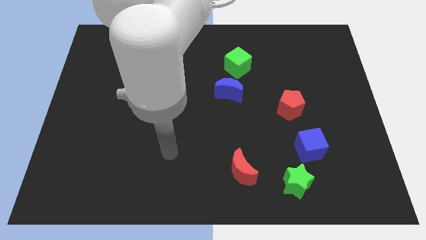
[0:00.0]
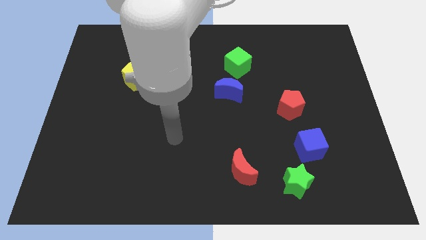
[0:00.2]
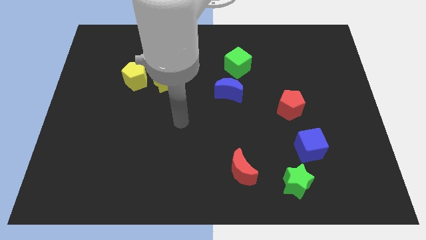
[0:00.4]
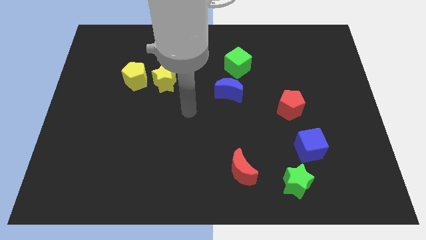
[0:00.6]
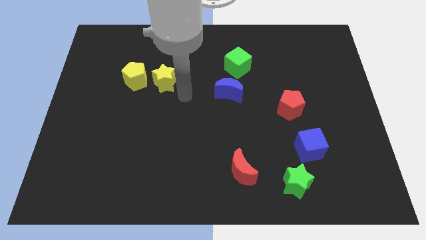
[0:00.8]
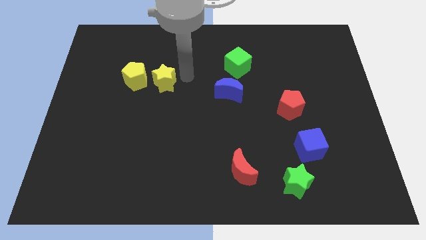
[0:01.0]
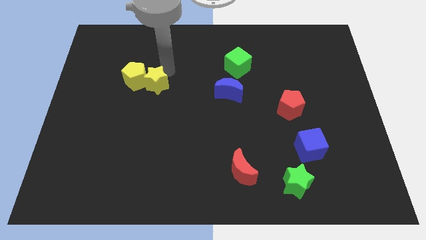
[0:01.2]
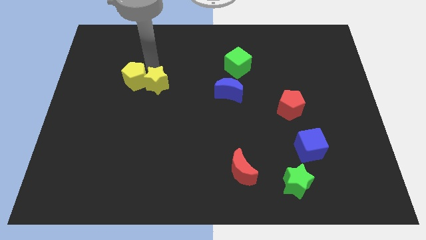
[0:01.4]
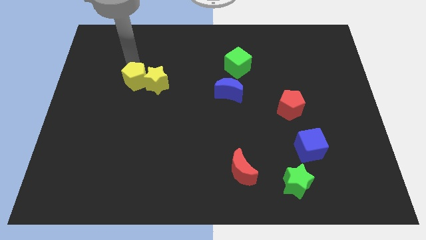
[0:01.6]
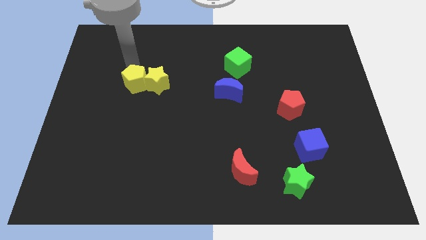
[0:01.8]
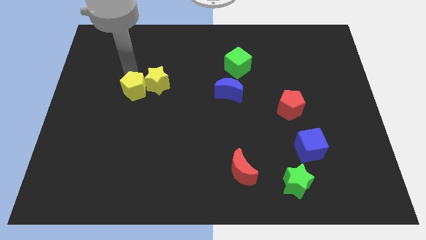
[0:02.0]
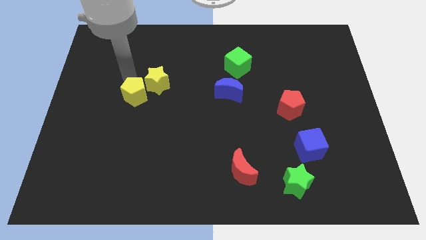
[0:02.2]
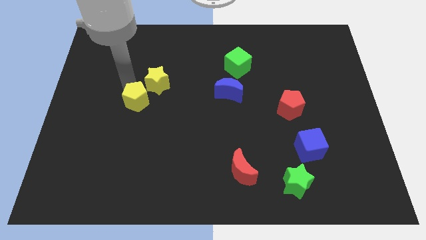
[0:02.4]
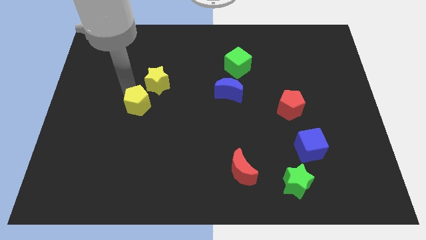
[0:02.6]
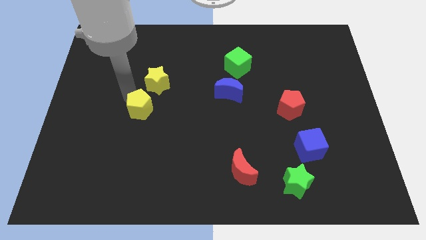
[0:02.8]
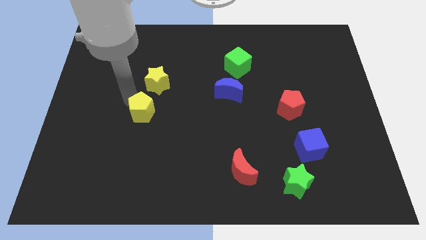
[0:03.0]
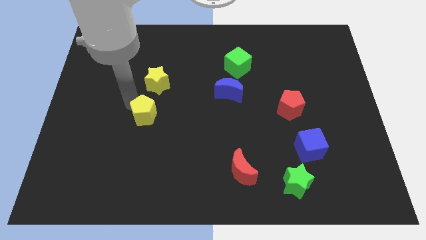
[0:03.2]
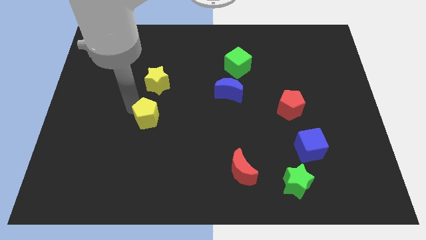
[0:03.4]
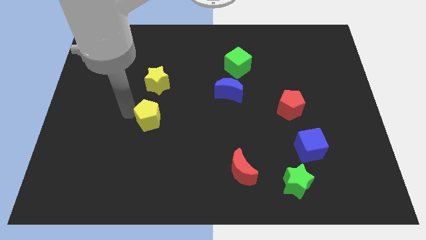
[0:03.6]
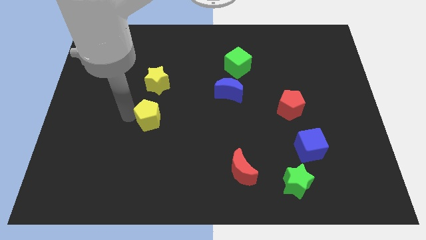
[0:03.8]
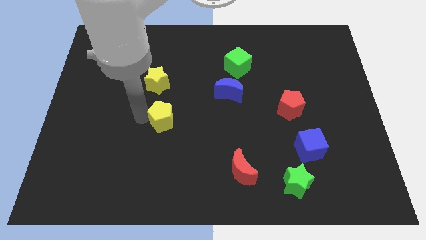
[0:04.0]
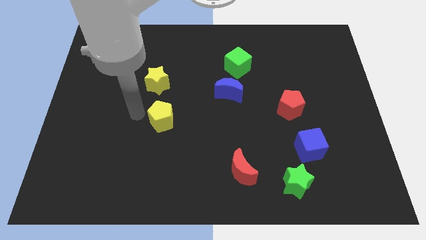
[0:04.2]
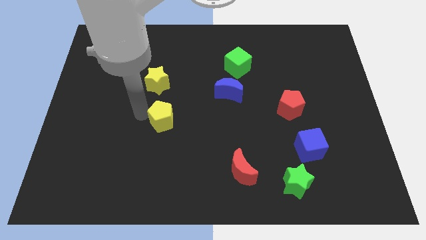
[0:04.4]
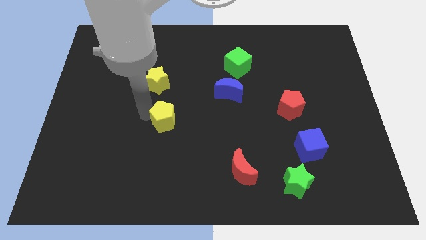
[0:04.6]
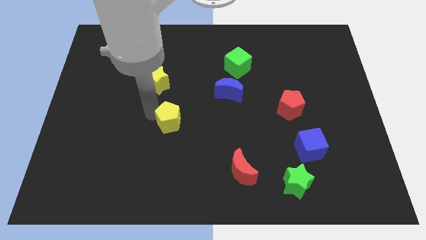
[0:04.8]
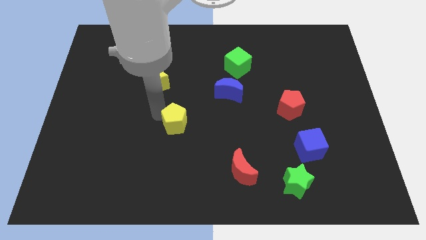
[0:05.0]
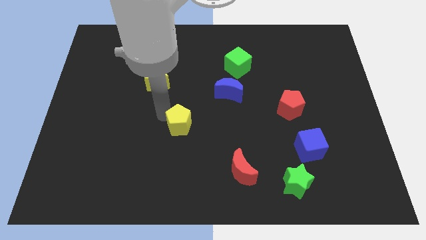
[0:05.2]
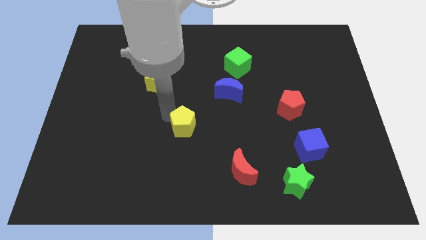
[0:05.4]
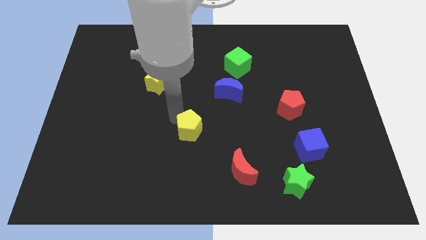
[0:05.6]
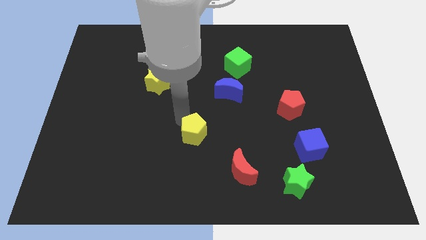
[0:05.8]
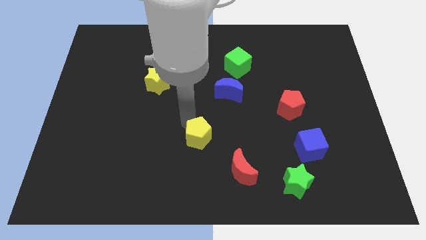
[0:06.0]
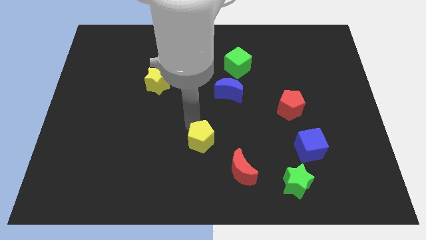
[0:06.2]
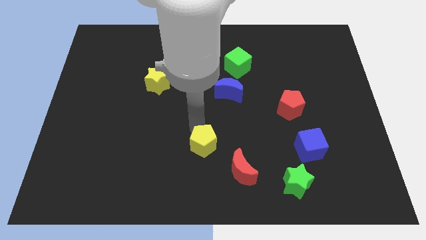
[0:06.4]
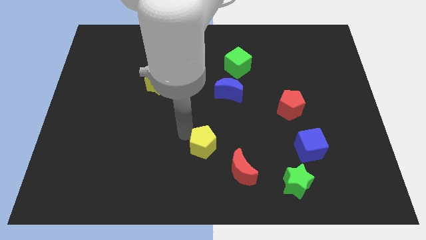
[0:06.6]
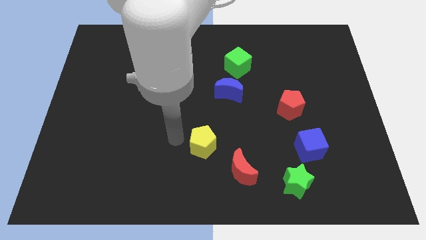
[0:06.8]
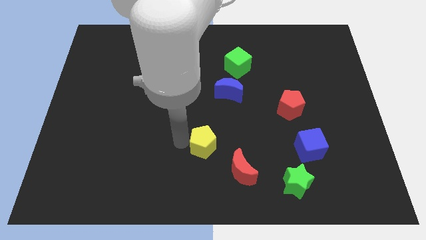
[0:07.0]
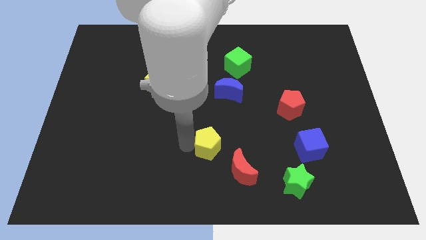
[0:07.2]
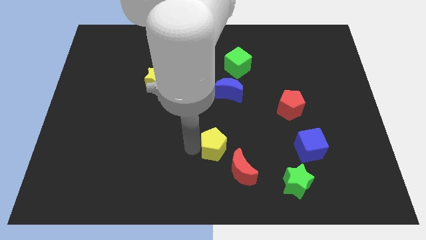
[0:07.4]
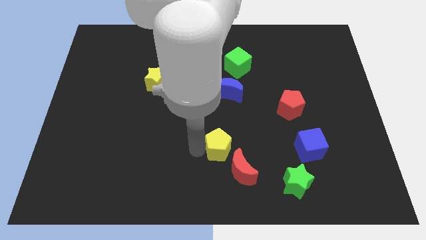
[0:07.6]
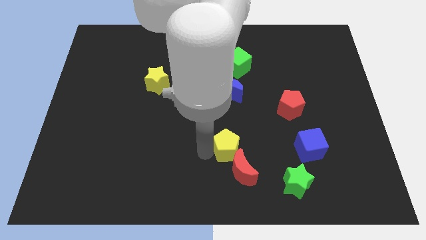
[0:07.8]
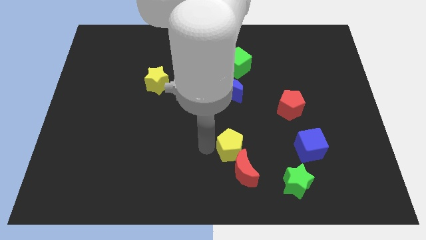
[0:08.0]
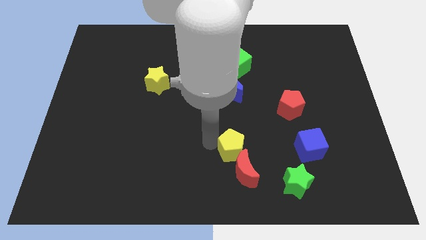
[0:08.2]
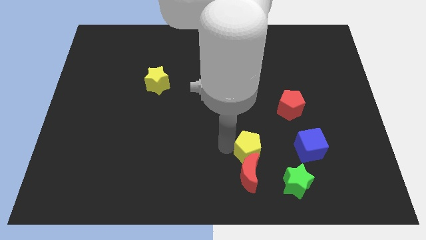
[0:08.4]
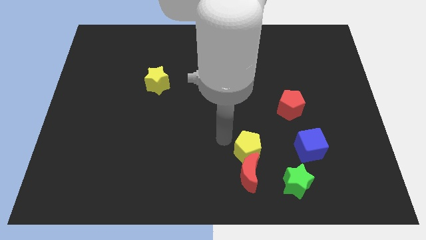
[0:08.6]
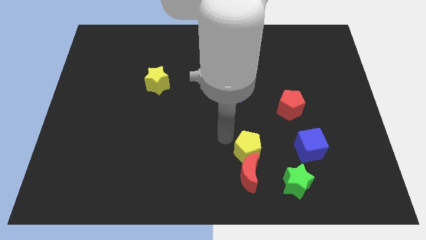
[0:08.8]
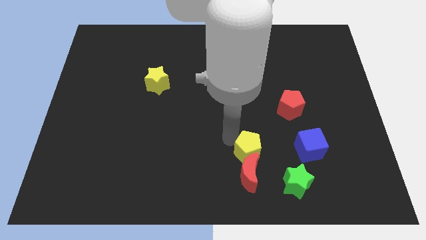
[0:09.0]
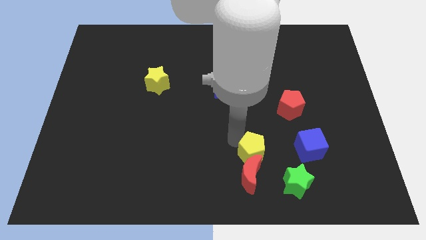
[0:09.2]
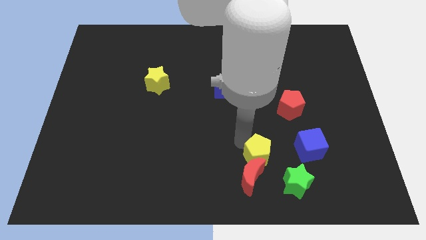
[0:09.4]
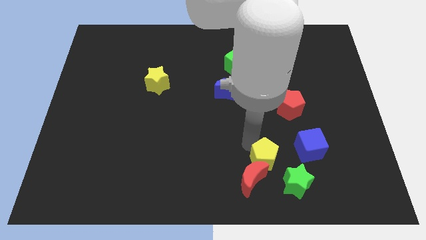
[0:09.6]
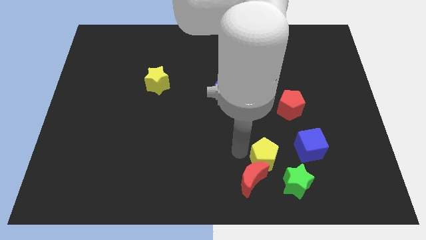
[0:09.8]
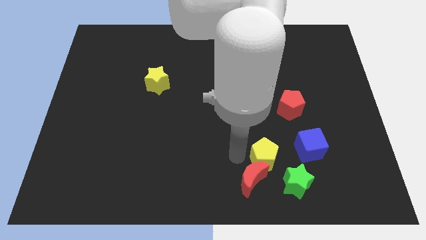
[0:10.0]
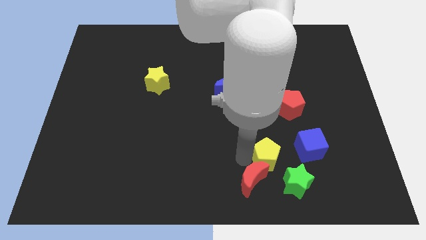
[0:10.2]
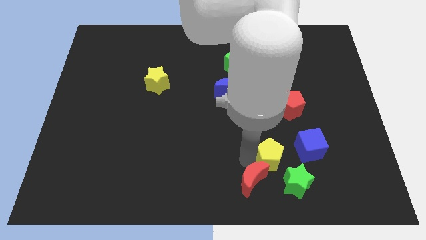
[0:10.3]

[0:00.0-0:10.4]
move the yellow pentagon to the right of the red moon

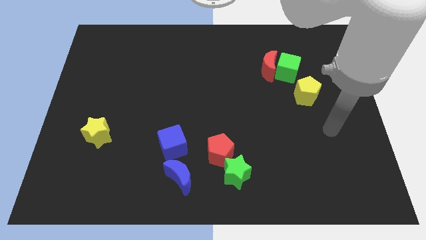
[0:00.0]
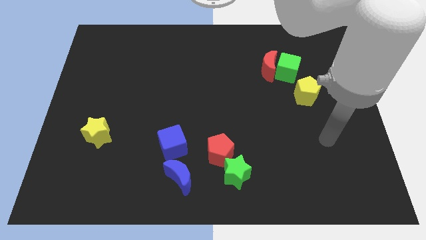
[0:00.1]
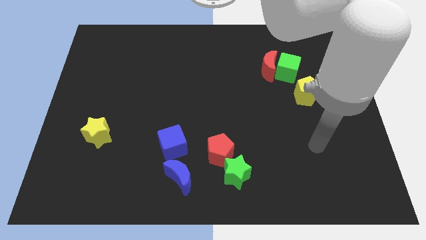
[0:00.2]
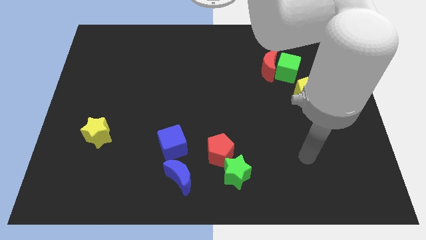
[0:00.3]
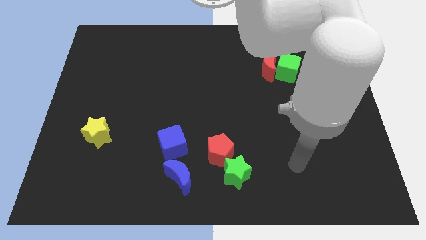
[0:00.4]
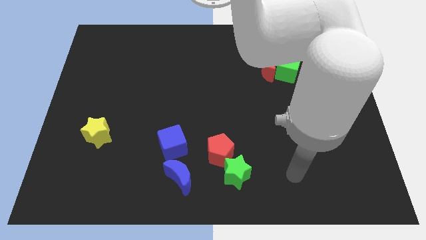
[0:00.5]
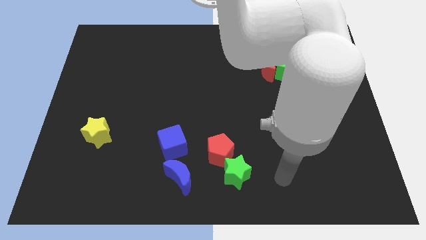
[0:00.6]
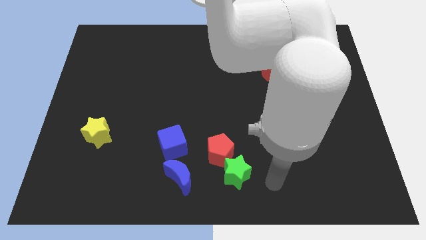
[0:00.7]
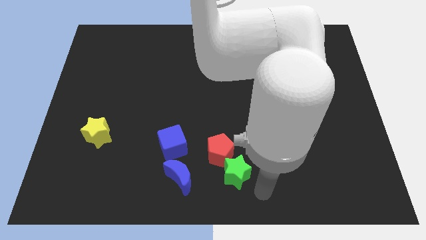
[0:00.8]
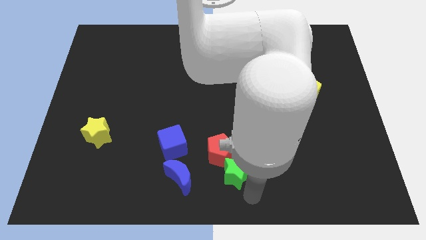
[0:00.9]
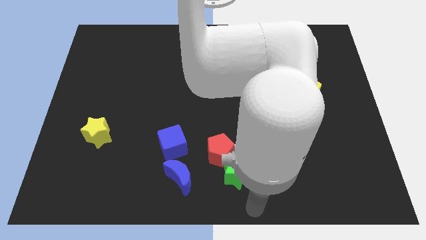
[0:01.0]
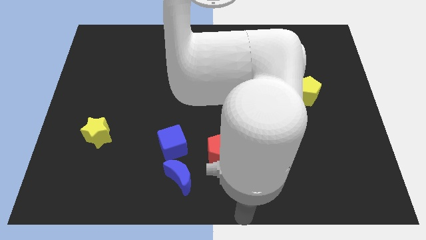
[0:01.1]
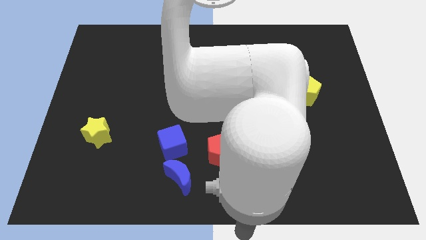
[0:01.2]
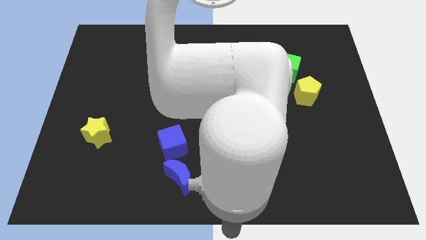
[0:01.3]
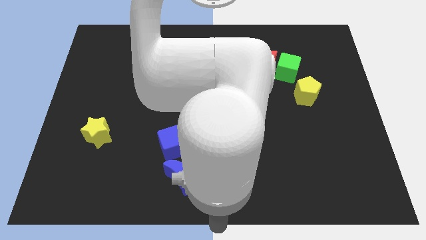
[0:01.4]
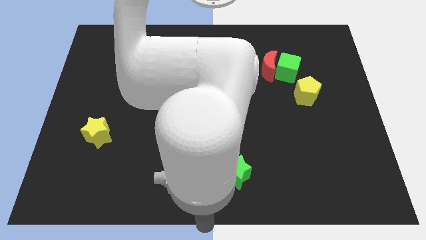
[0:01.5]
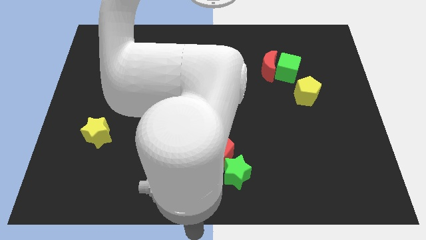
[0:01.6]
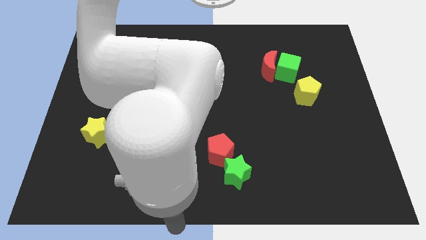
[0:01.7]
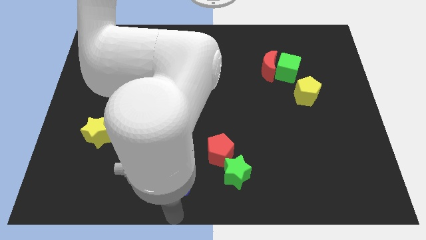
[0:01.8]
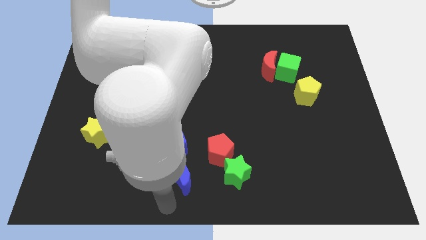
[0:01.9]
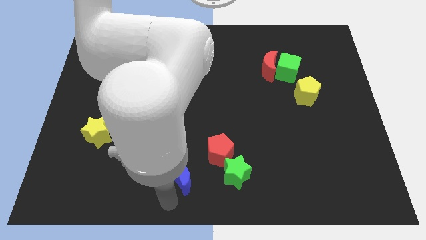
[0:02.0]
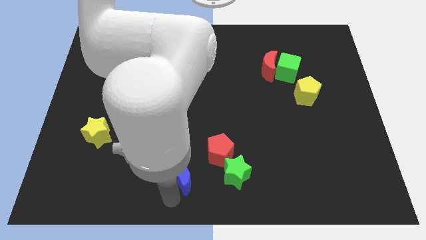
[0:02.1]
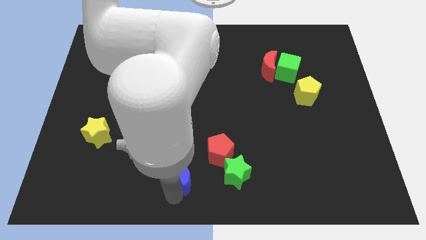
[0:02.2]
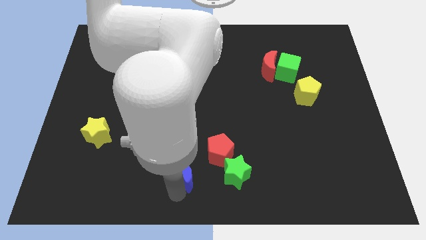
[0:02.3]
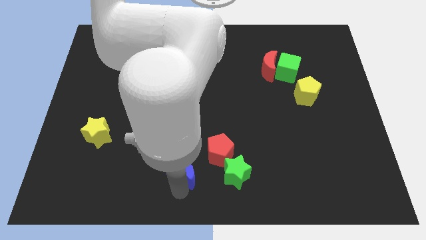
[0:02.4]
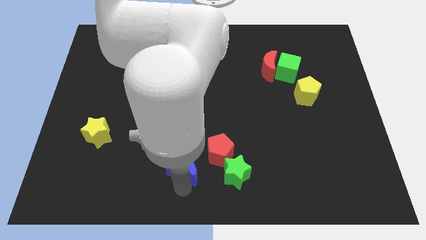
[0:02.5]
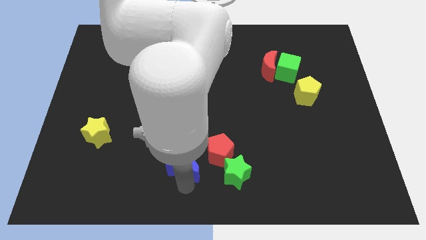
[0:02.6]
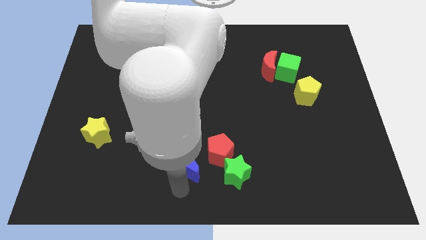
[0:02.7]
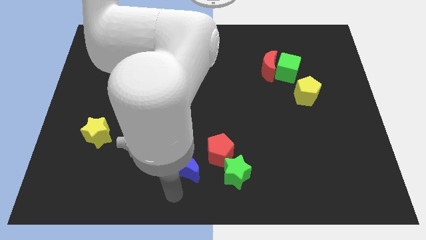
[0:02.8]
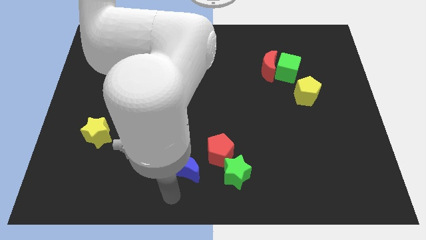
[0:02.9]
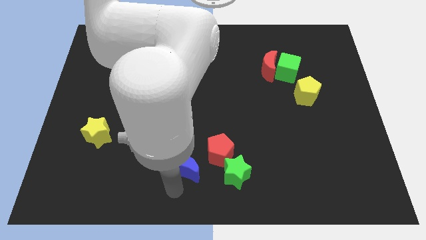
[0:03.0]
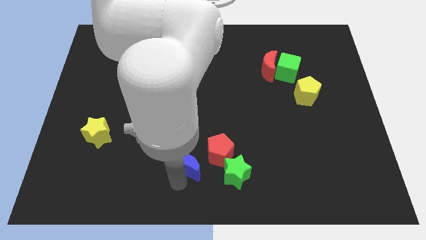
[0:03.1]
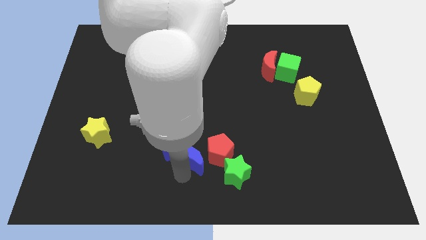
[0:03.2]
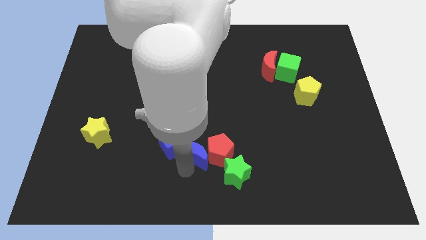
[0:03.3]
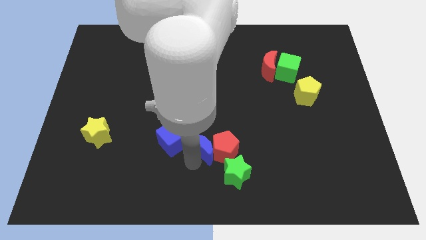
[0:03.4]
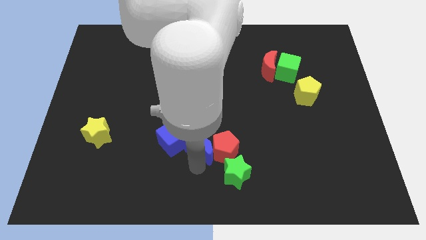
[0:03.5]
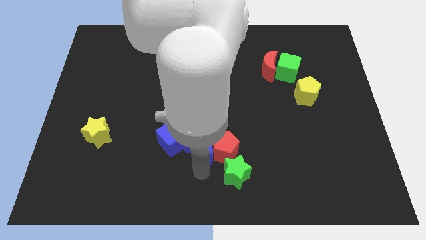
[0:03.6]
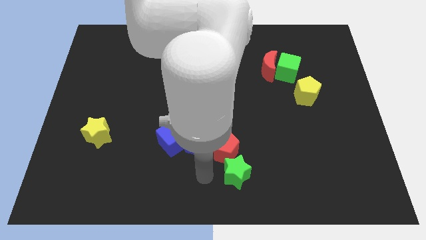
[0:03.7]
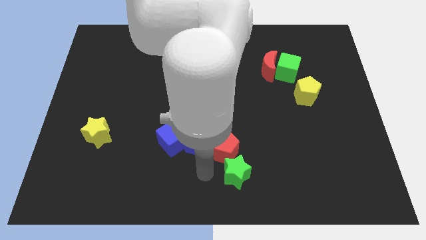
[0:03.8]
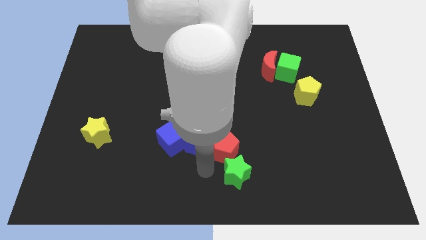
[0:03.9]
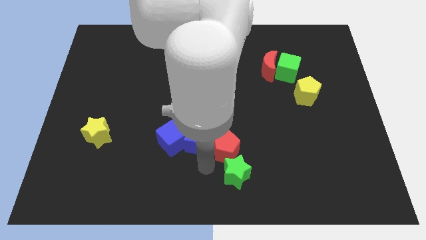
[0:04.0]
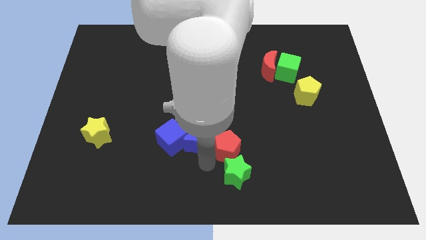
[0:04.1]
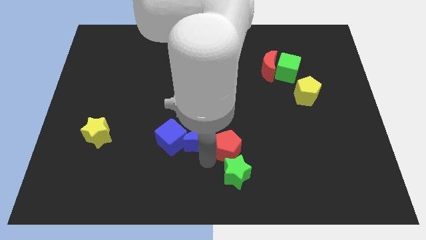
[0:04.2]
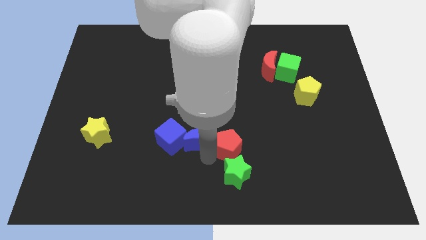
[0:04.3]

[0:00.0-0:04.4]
slide the blue moon diagonally up and to the right of the blue cube
